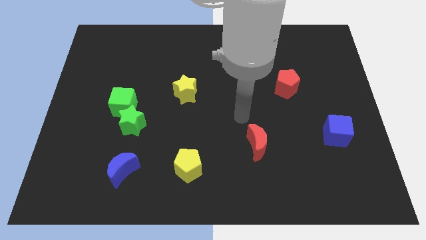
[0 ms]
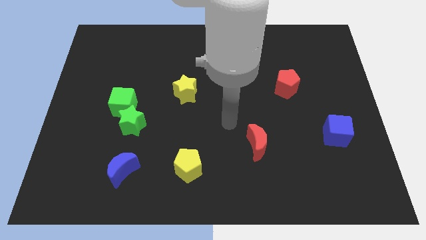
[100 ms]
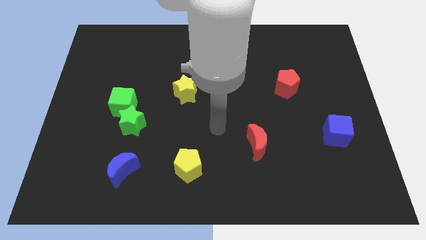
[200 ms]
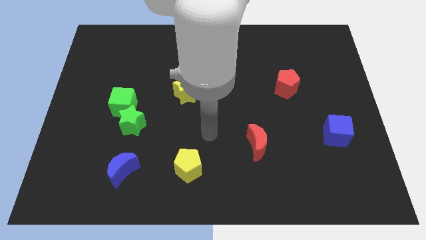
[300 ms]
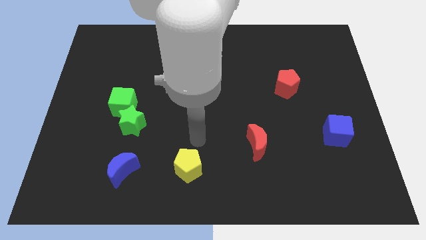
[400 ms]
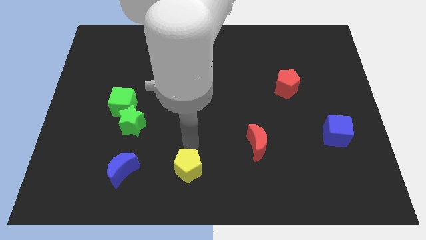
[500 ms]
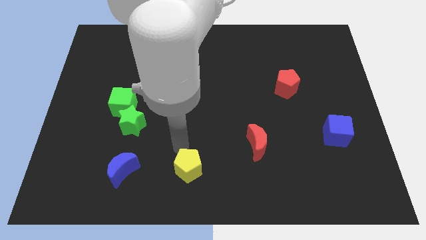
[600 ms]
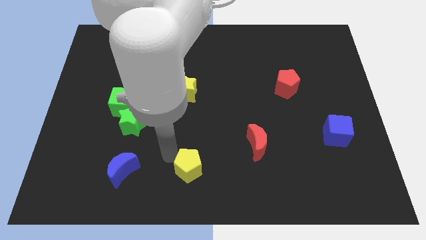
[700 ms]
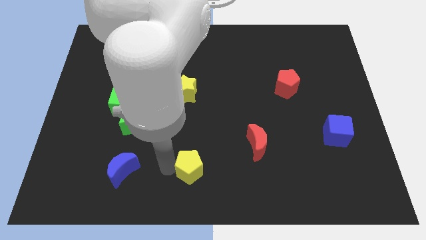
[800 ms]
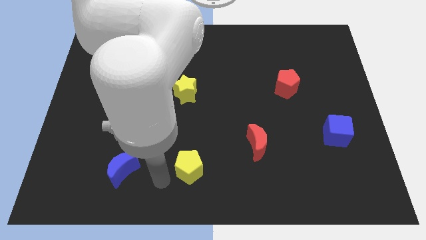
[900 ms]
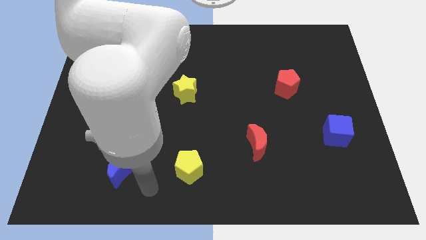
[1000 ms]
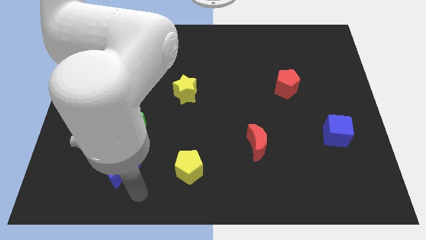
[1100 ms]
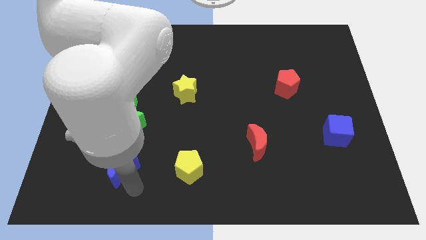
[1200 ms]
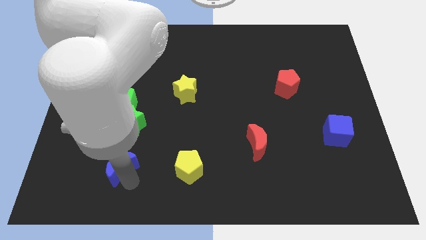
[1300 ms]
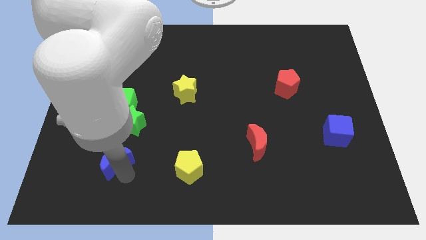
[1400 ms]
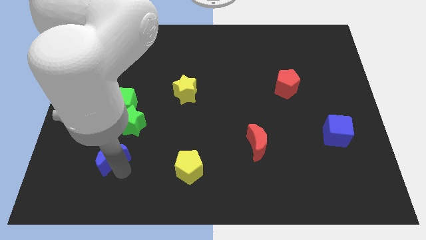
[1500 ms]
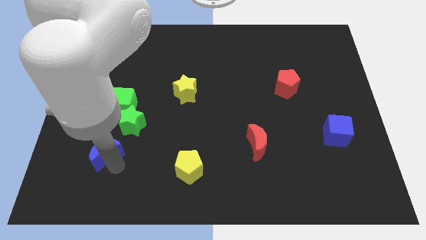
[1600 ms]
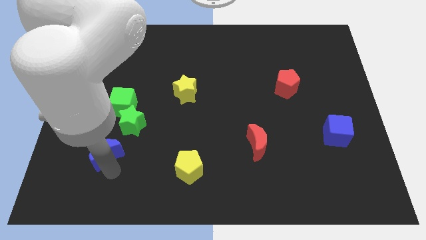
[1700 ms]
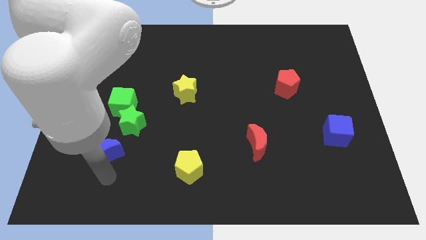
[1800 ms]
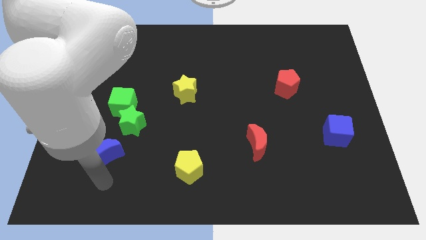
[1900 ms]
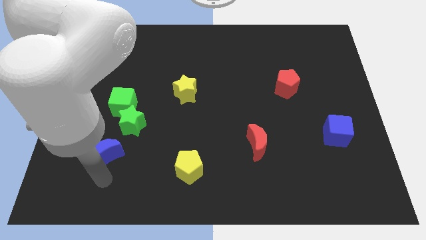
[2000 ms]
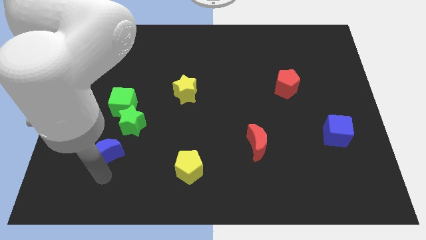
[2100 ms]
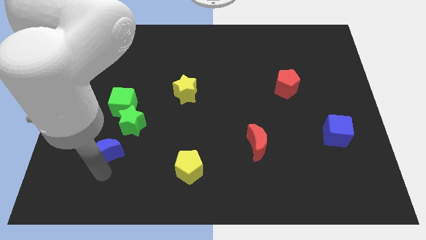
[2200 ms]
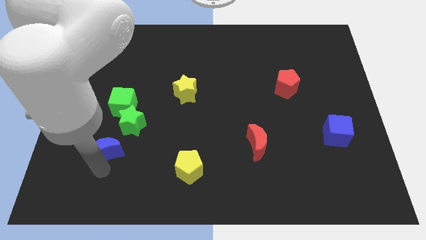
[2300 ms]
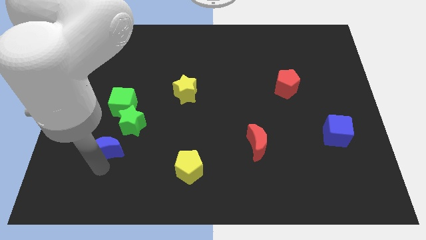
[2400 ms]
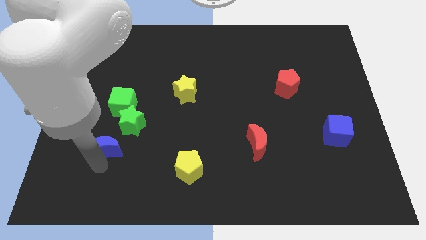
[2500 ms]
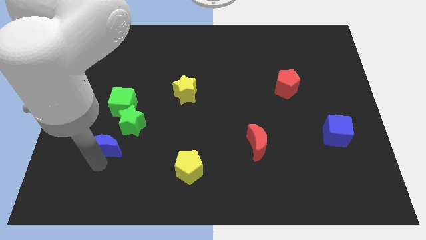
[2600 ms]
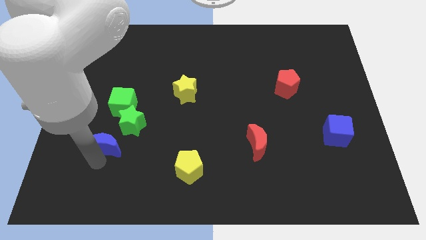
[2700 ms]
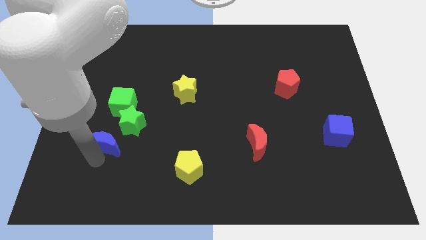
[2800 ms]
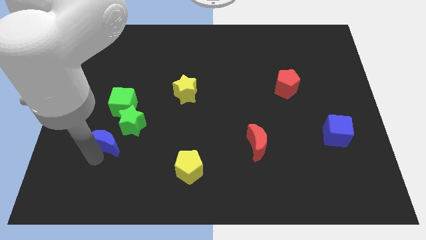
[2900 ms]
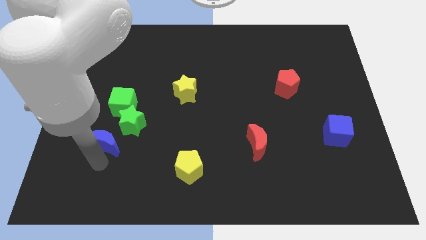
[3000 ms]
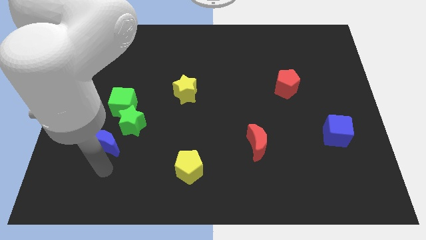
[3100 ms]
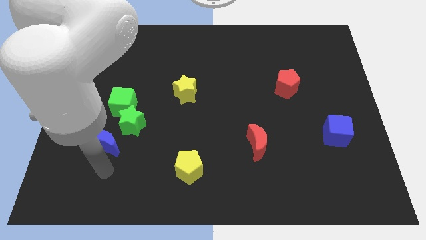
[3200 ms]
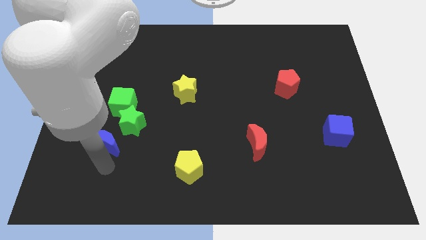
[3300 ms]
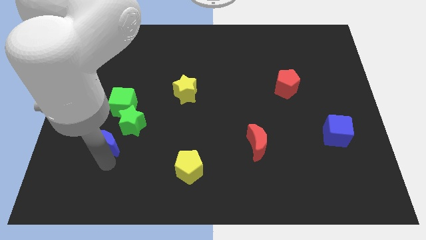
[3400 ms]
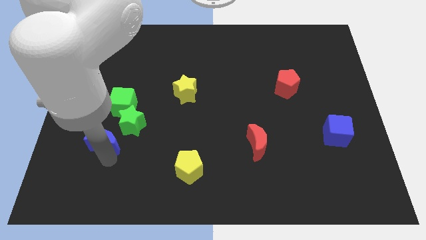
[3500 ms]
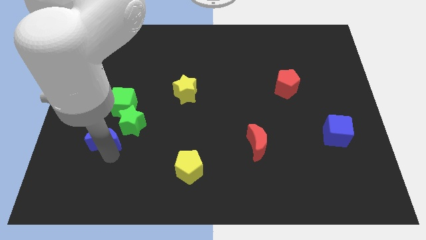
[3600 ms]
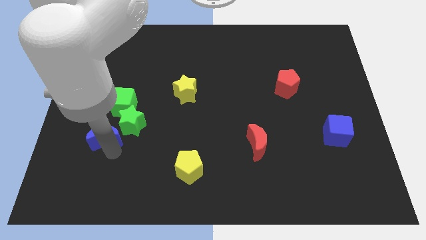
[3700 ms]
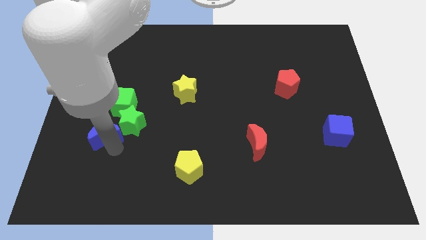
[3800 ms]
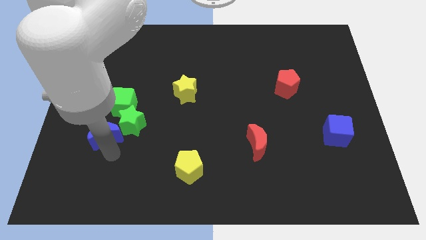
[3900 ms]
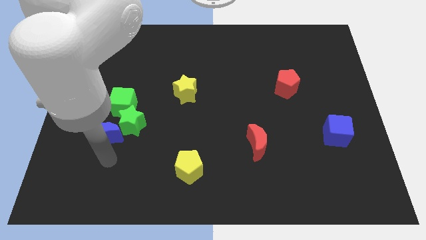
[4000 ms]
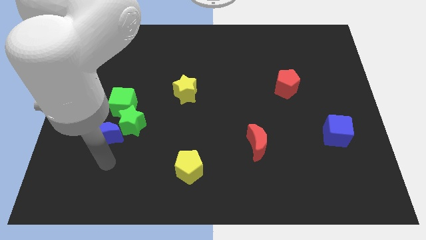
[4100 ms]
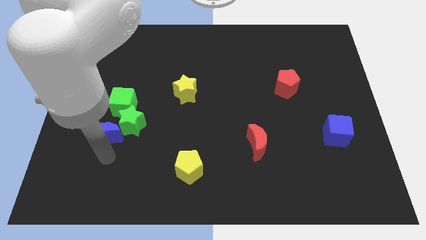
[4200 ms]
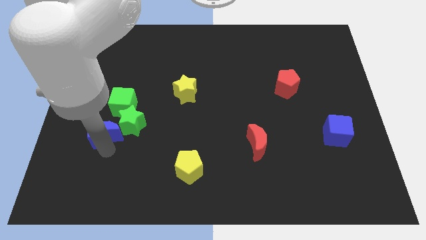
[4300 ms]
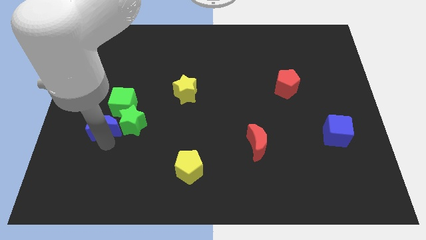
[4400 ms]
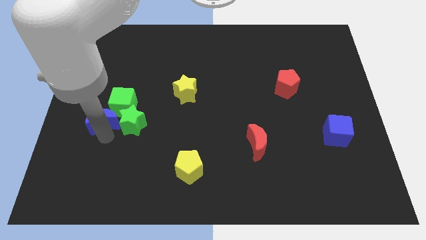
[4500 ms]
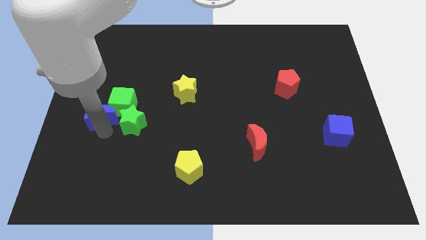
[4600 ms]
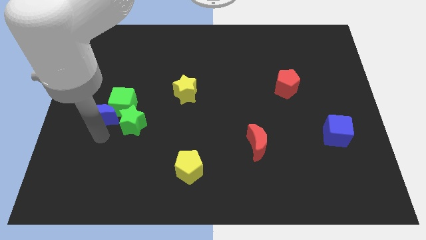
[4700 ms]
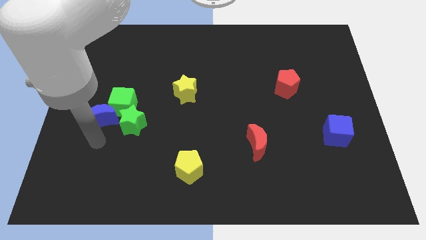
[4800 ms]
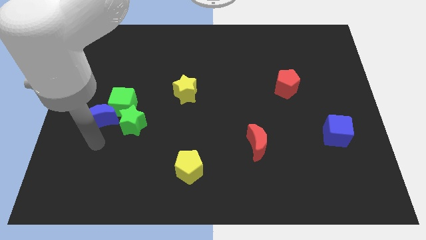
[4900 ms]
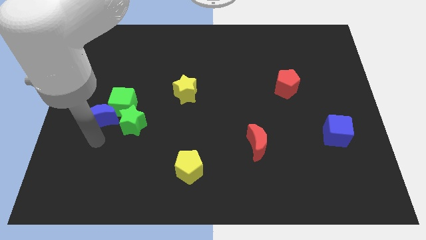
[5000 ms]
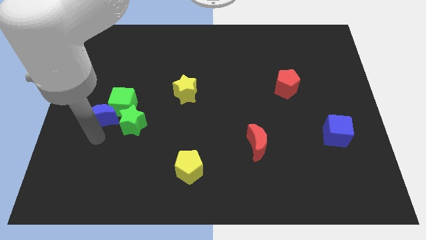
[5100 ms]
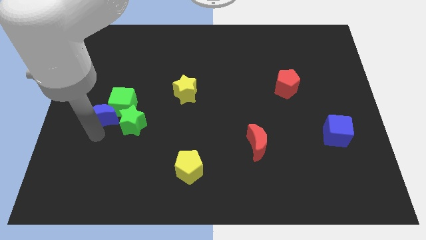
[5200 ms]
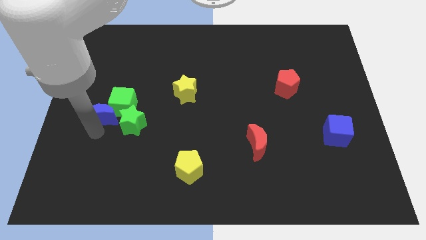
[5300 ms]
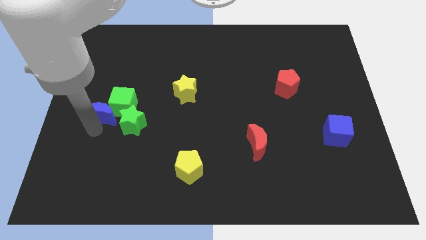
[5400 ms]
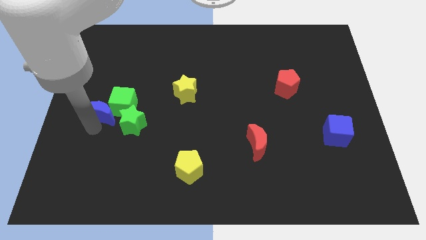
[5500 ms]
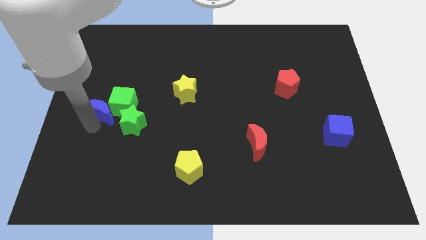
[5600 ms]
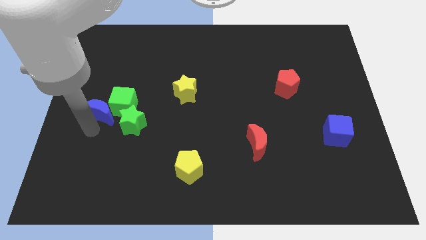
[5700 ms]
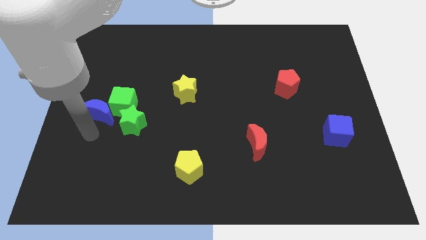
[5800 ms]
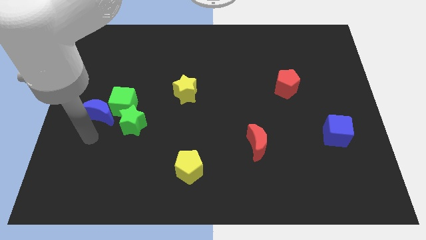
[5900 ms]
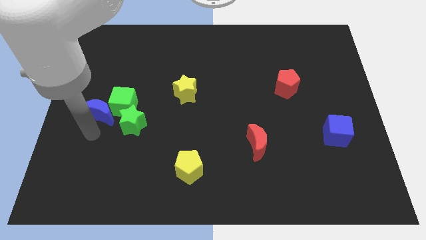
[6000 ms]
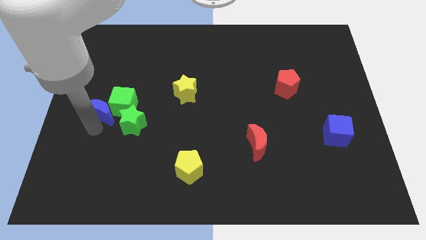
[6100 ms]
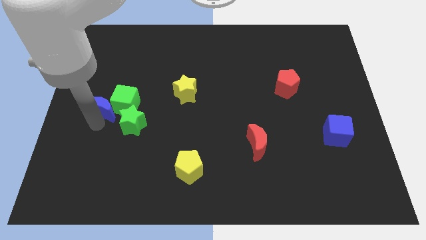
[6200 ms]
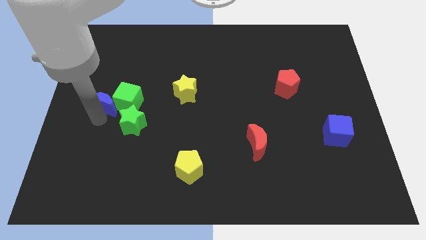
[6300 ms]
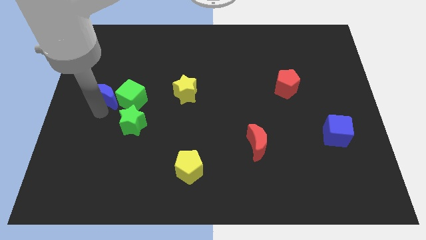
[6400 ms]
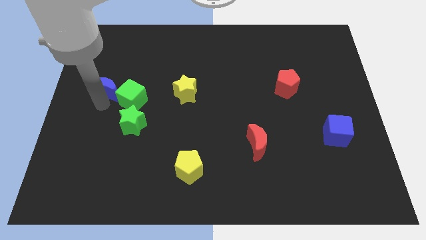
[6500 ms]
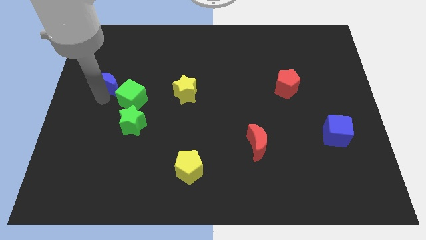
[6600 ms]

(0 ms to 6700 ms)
move the blue moon up

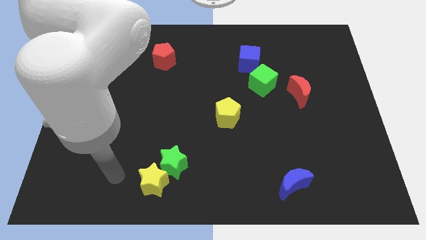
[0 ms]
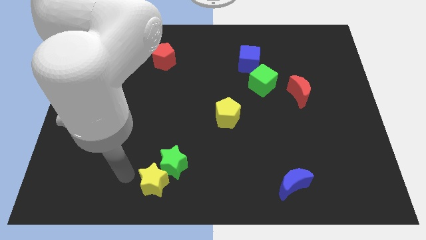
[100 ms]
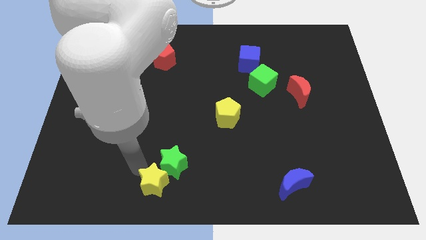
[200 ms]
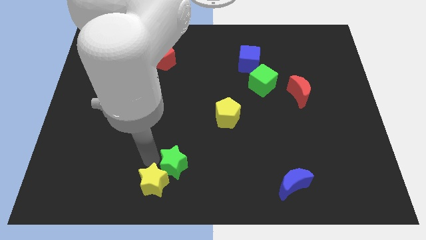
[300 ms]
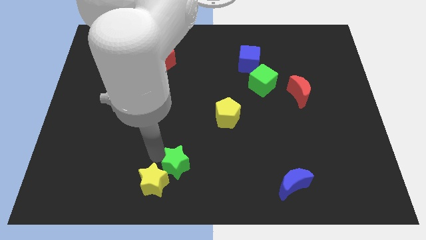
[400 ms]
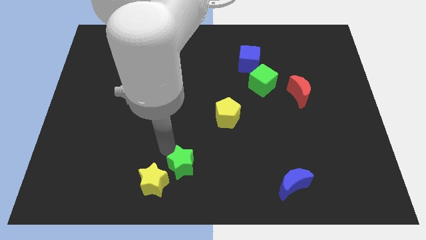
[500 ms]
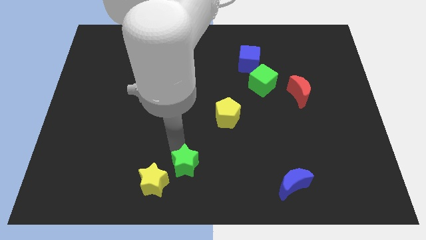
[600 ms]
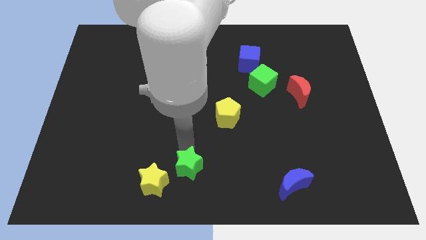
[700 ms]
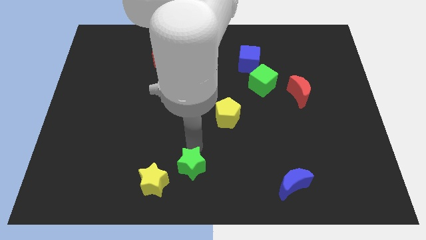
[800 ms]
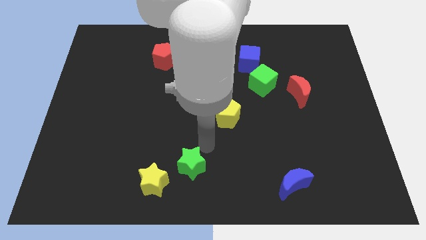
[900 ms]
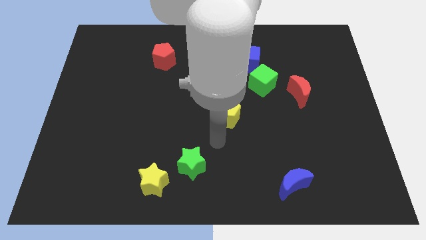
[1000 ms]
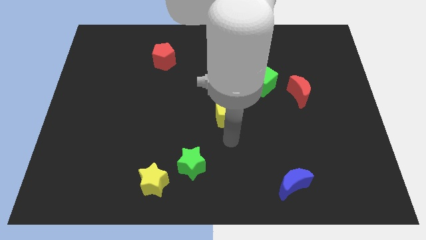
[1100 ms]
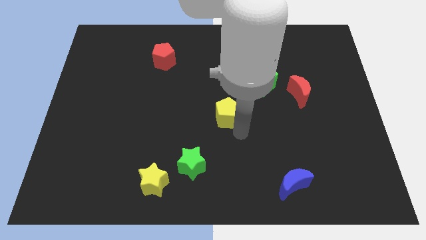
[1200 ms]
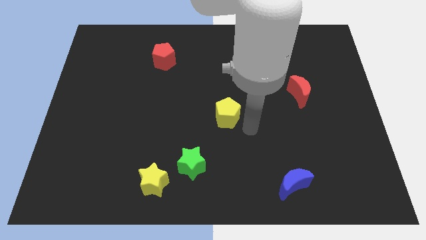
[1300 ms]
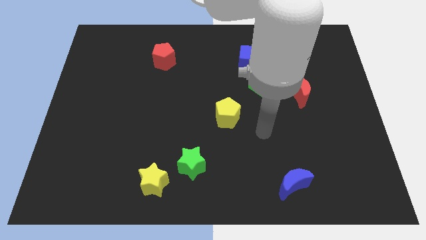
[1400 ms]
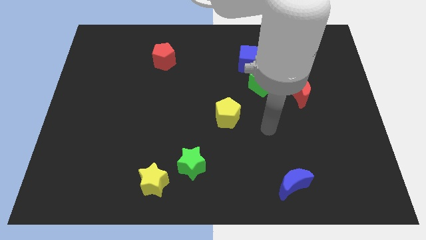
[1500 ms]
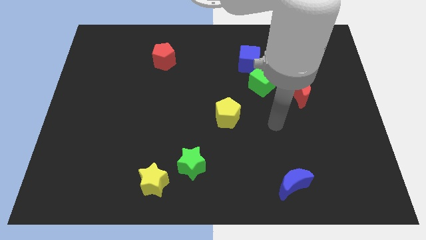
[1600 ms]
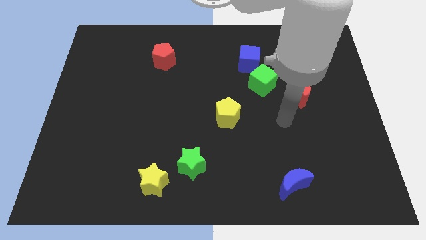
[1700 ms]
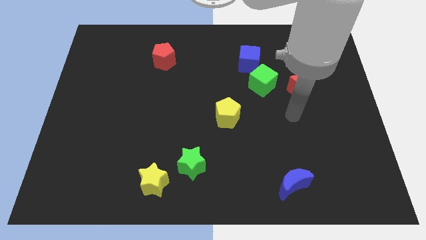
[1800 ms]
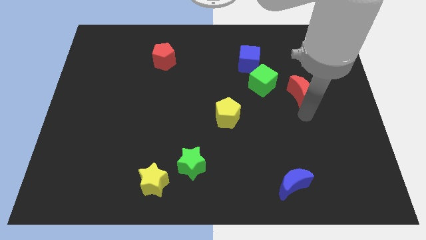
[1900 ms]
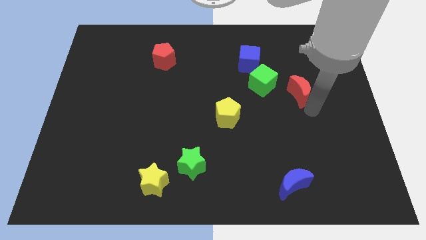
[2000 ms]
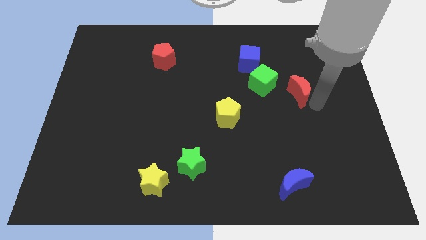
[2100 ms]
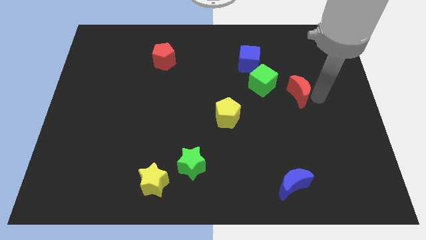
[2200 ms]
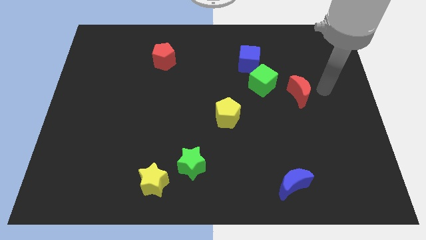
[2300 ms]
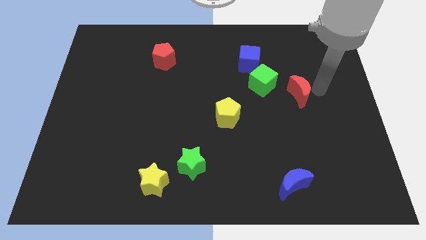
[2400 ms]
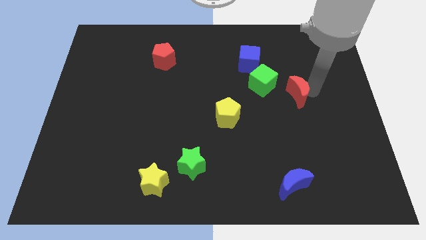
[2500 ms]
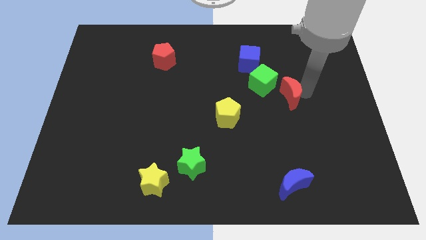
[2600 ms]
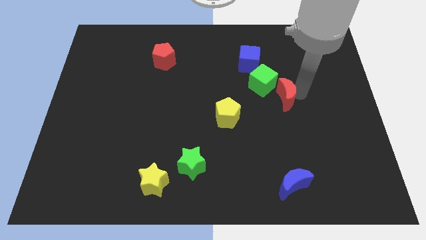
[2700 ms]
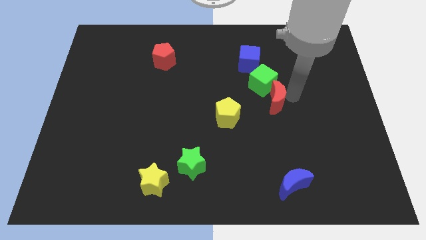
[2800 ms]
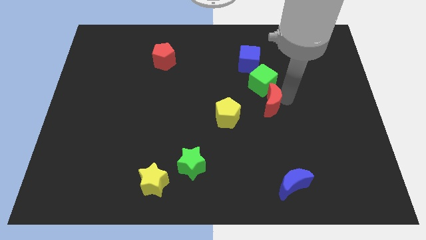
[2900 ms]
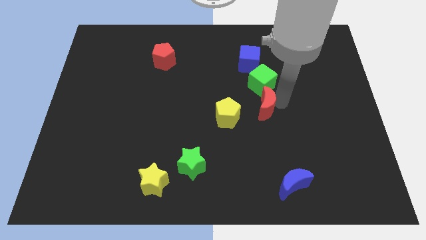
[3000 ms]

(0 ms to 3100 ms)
slide the red moon to the left somewhat
